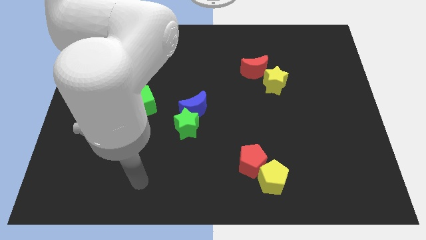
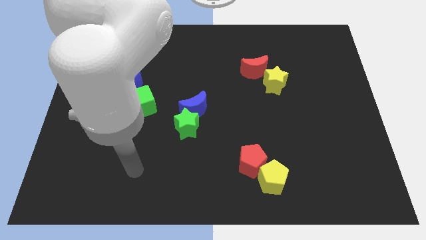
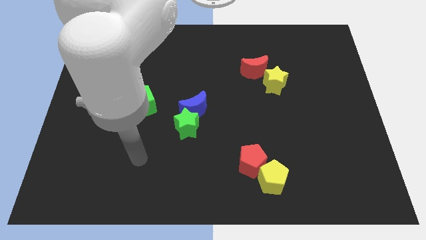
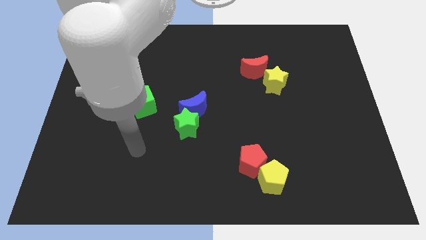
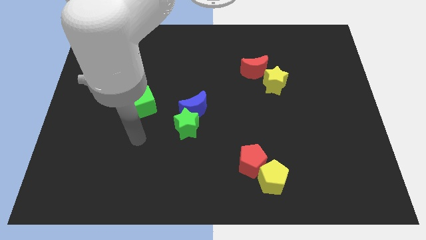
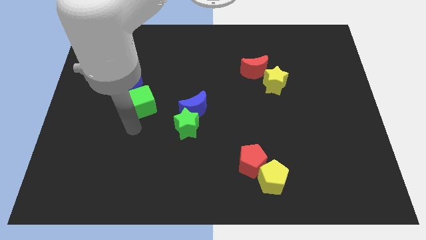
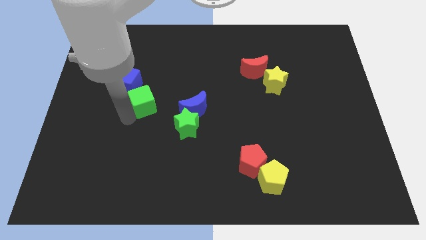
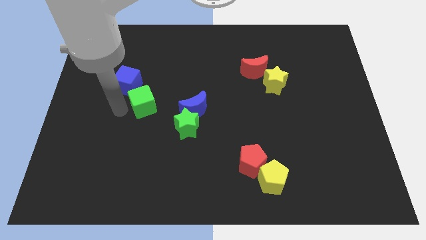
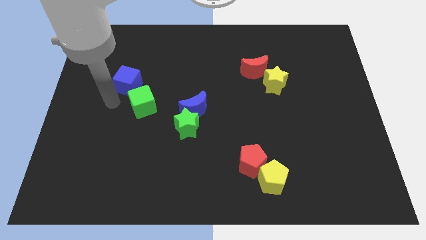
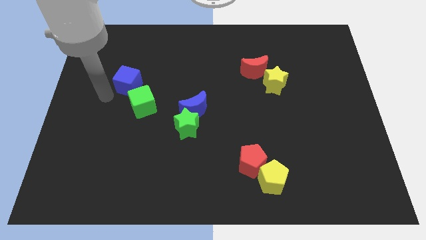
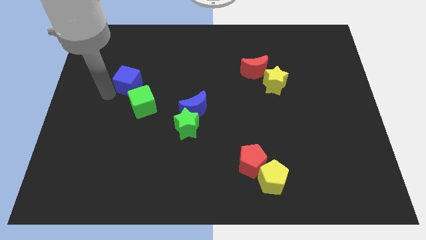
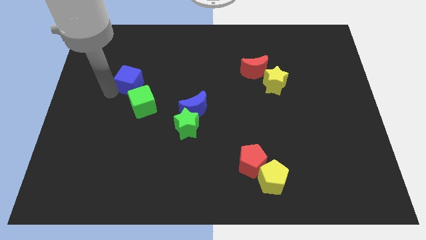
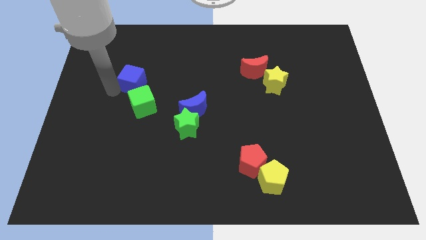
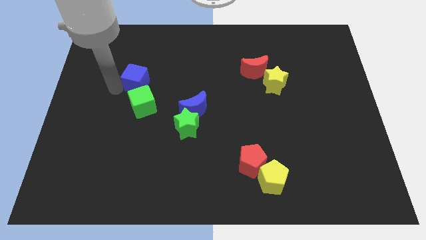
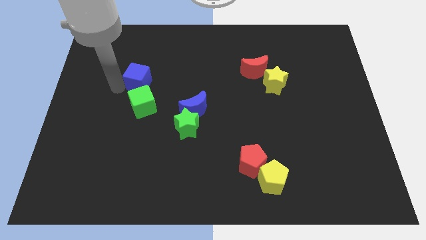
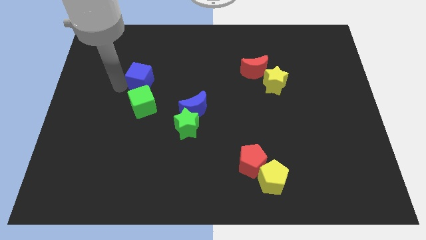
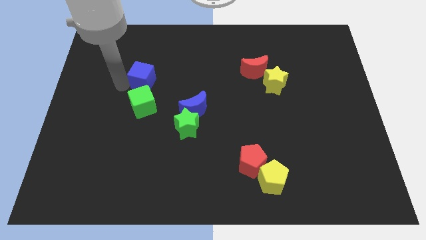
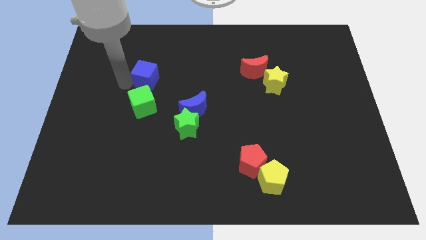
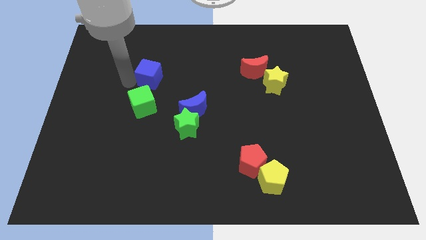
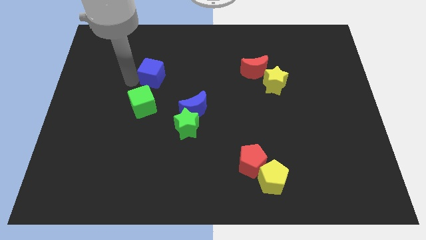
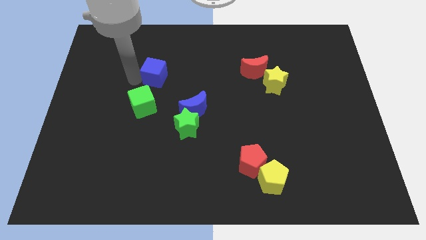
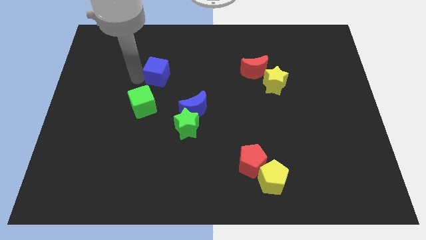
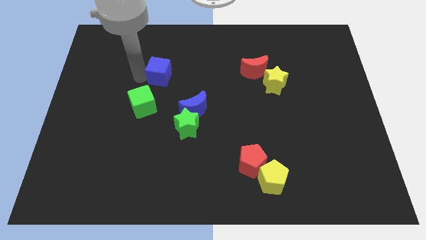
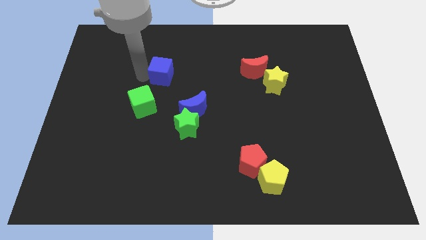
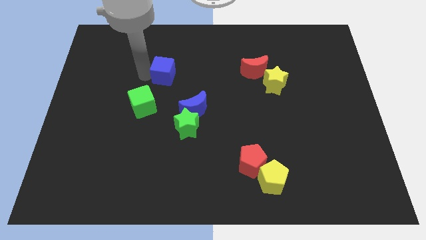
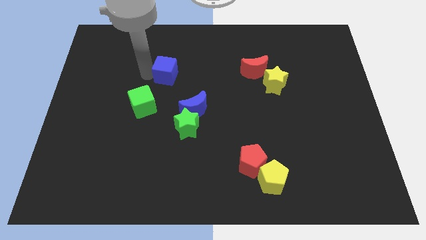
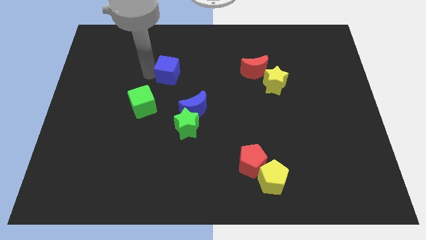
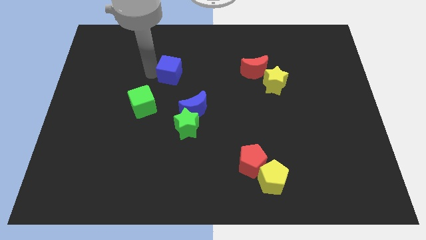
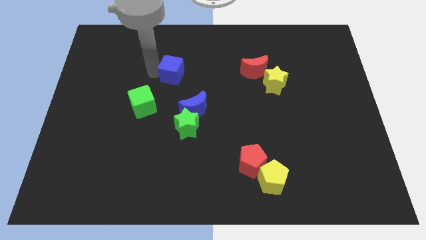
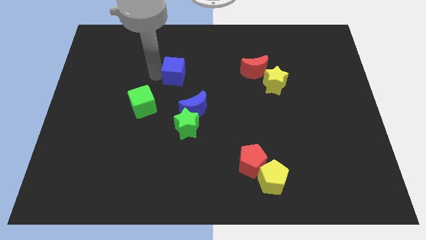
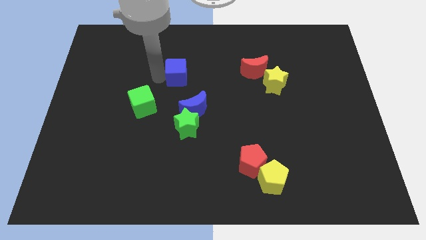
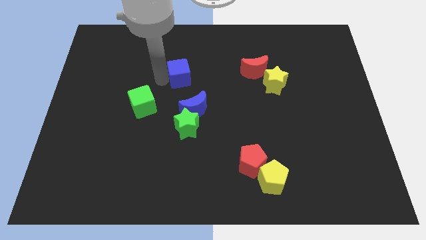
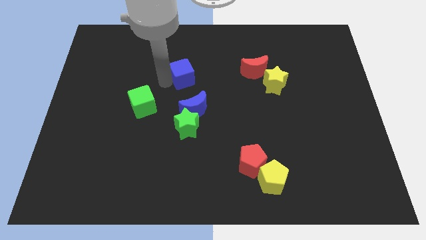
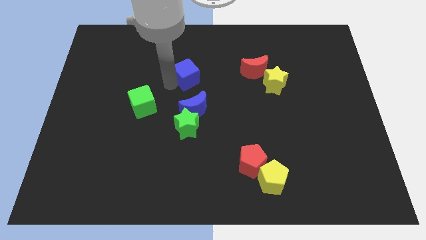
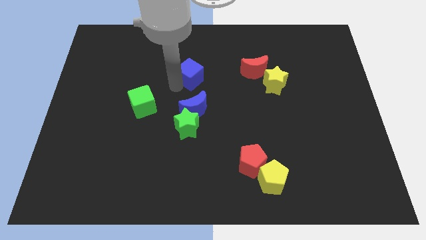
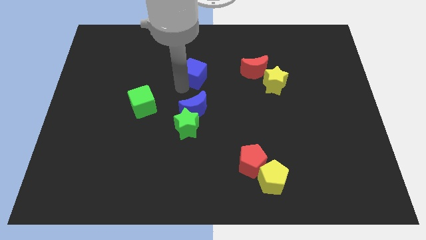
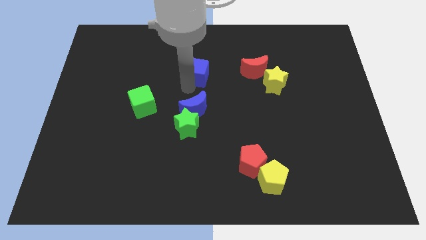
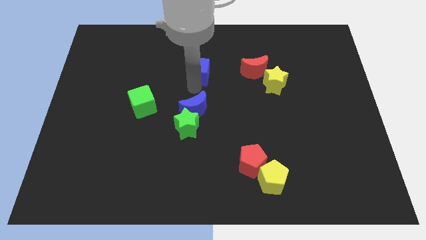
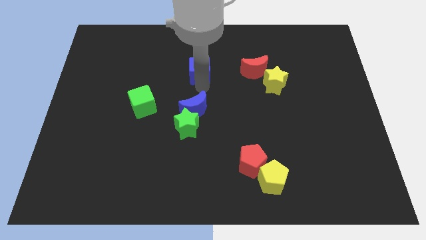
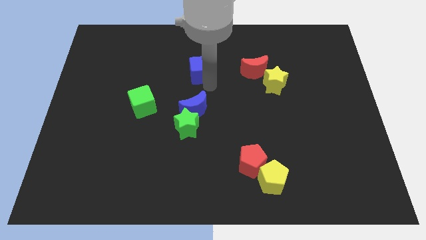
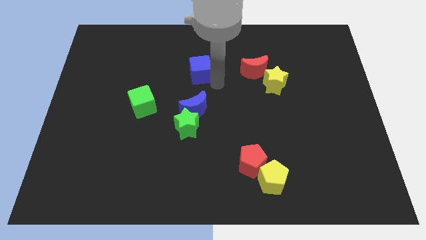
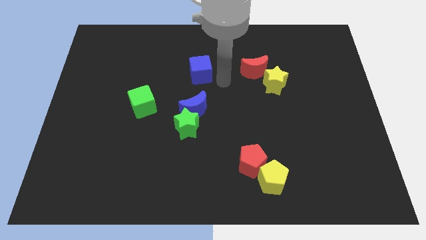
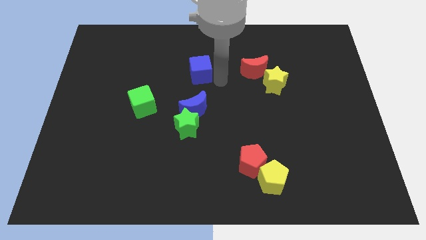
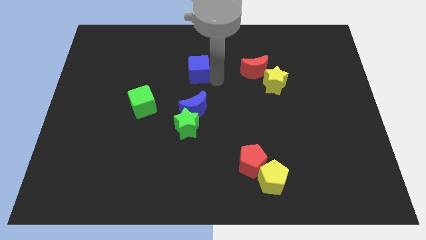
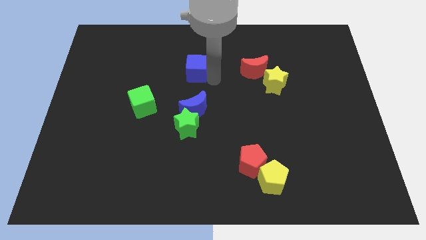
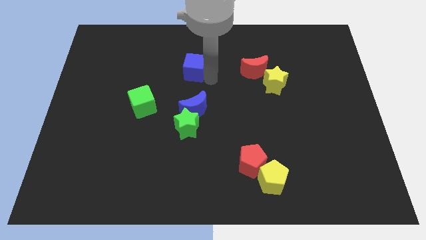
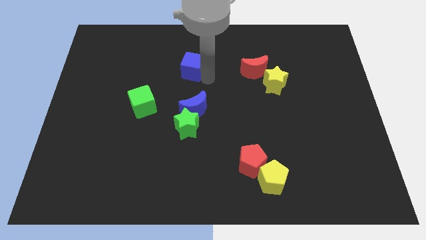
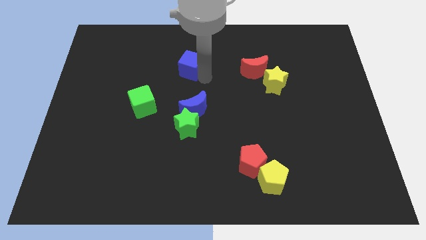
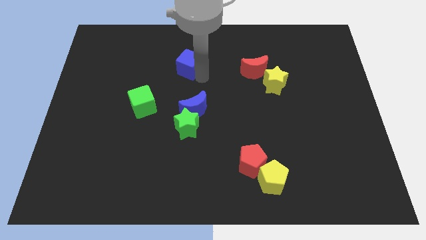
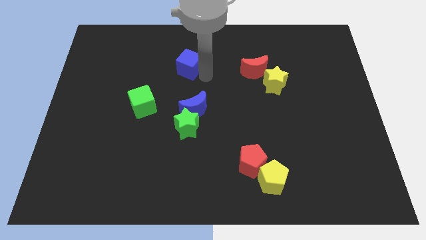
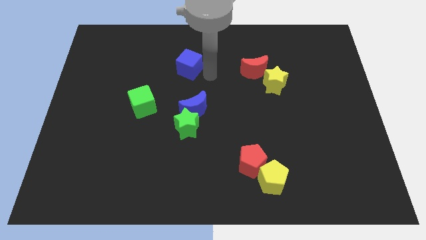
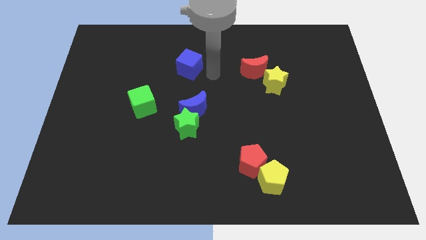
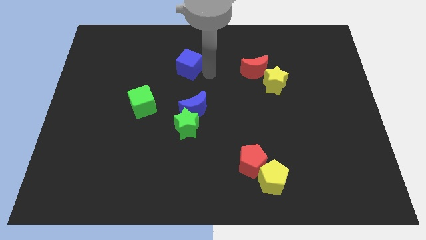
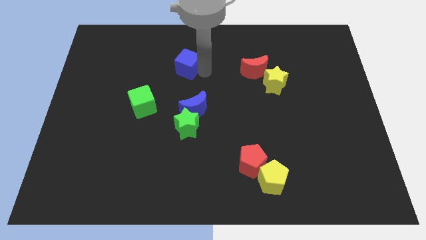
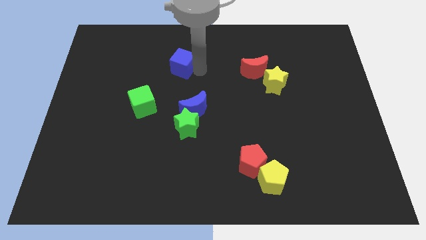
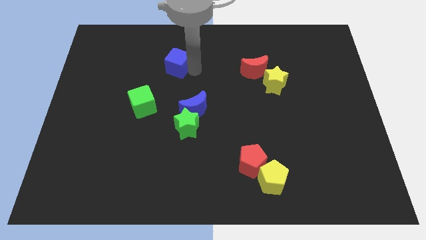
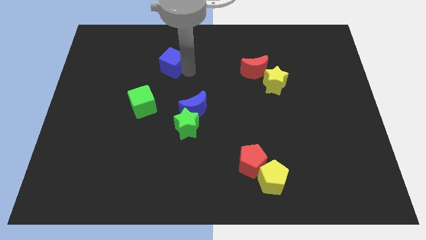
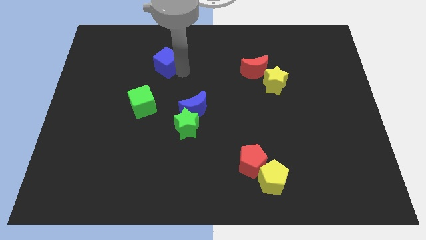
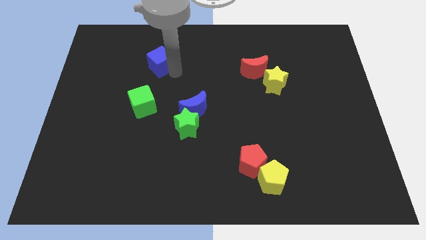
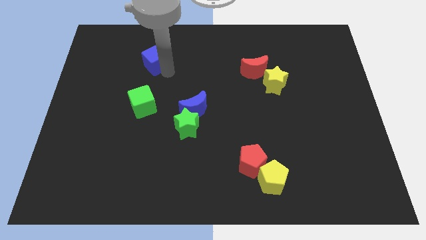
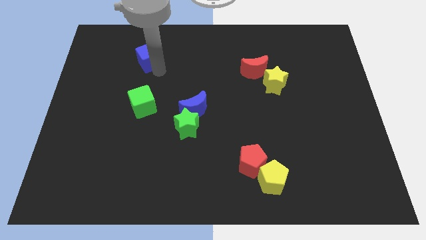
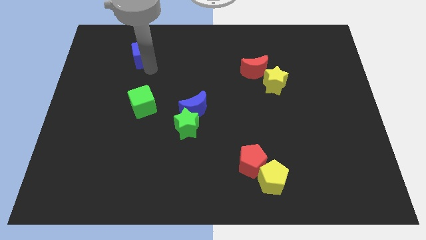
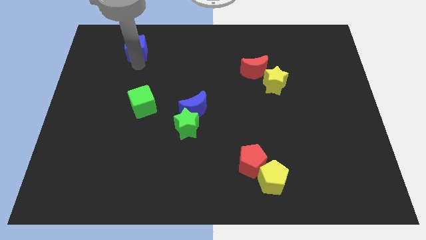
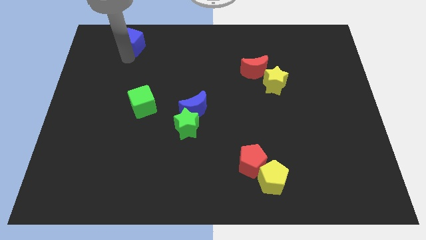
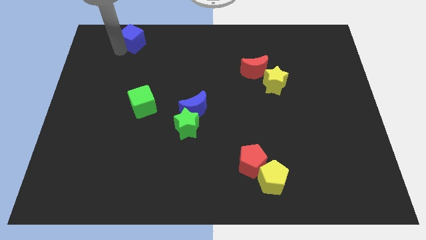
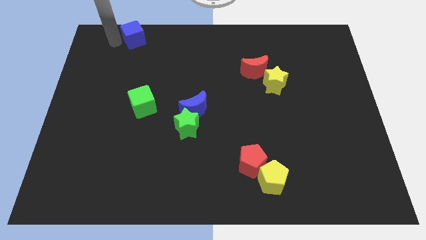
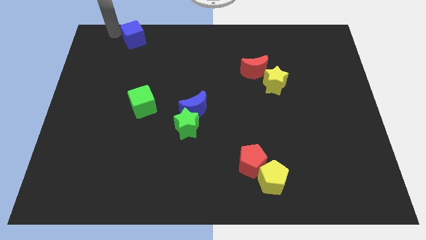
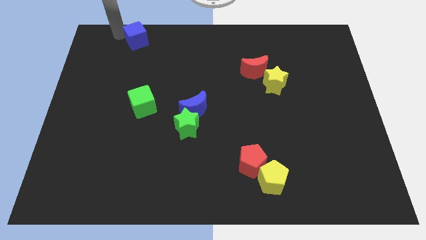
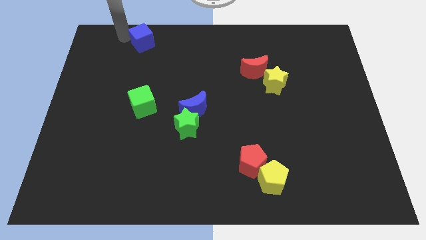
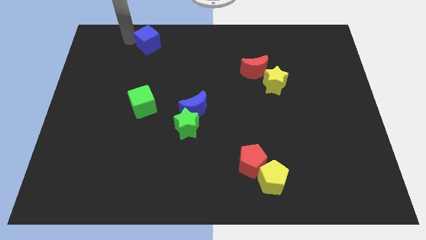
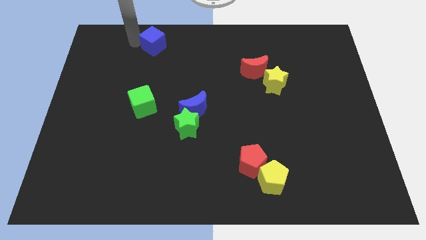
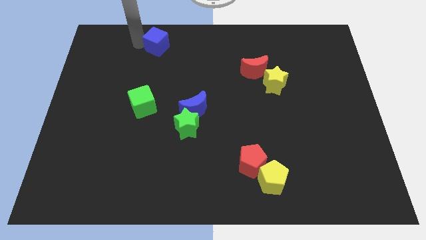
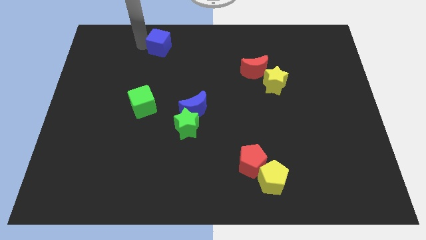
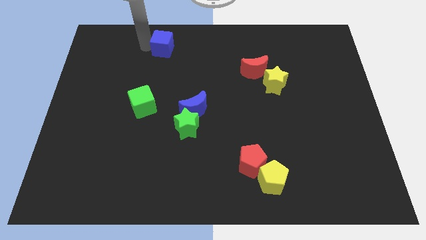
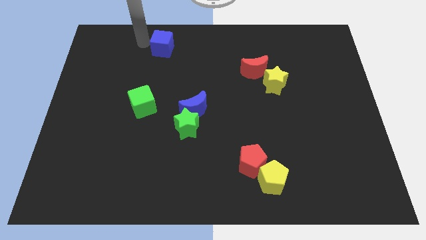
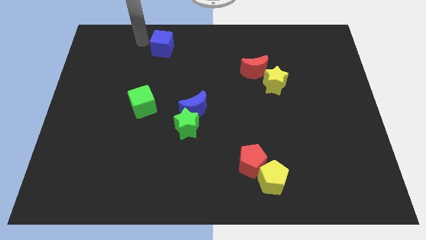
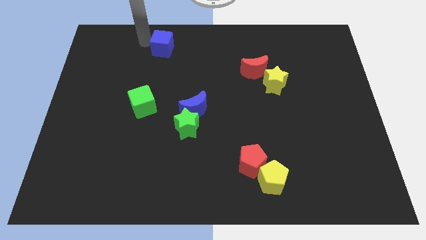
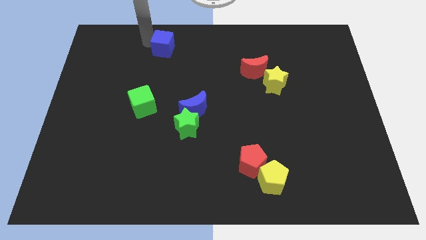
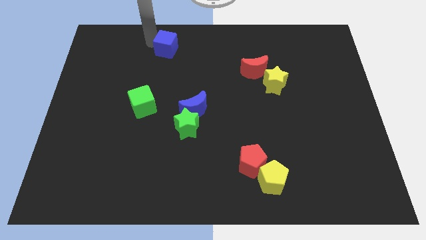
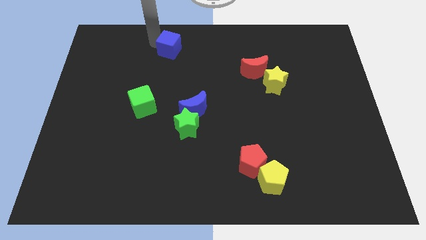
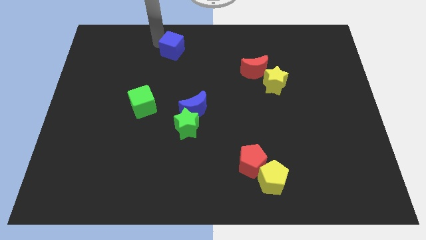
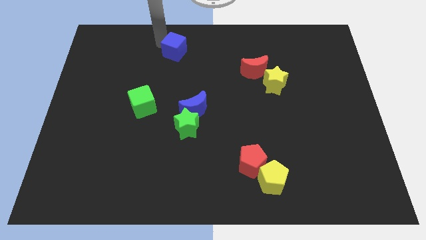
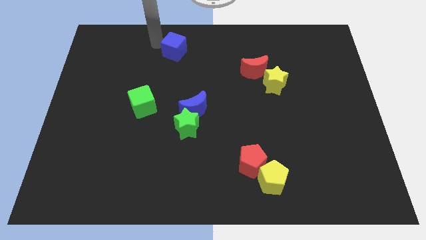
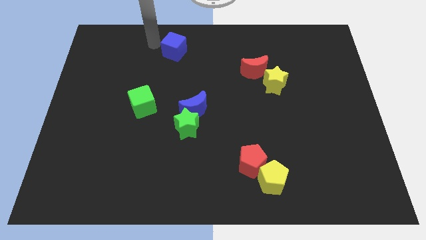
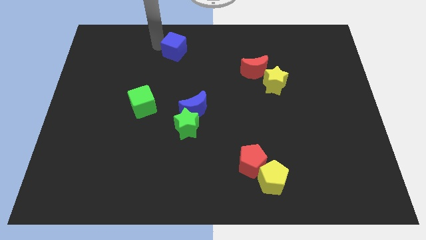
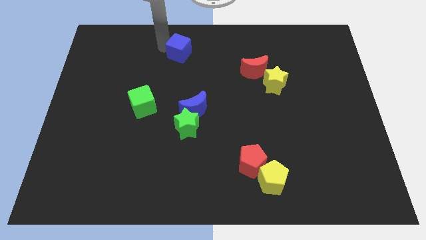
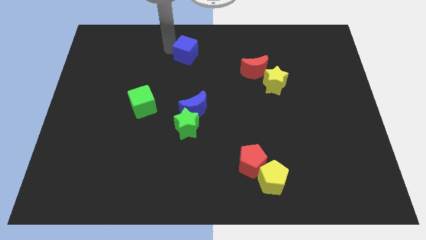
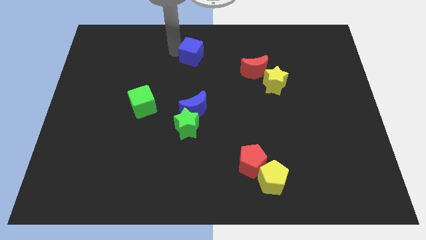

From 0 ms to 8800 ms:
put the blue cube to the towards your base
